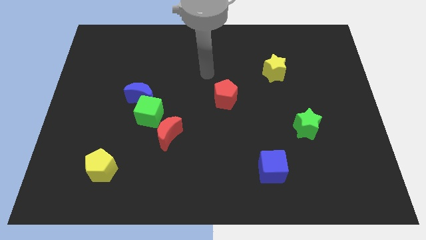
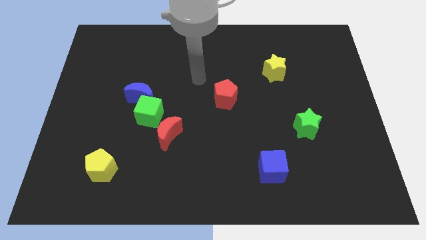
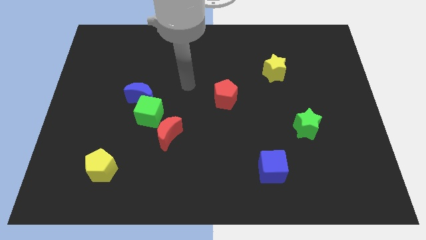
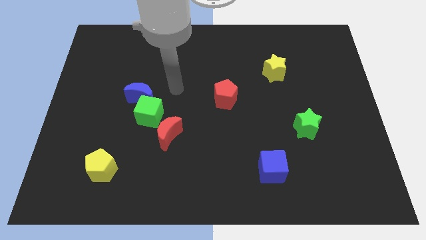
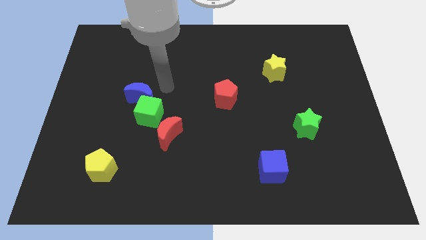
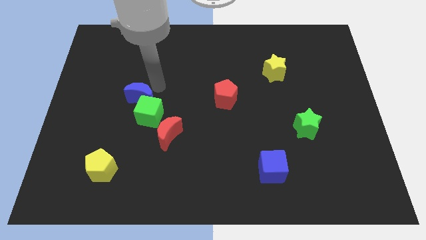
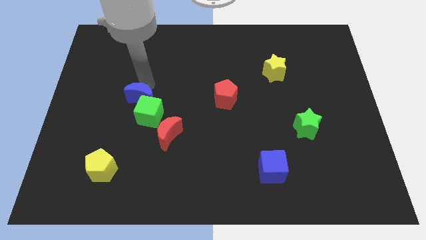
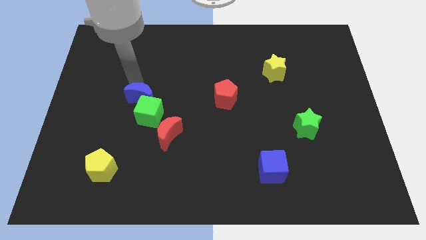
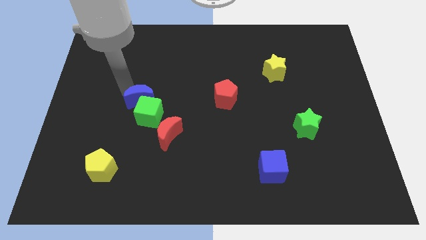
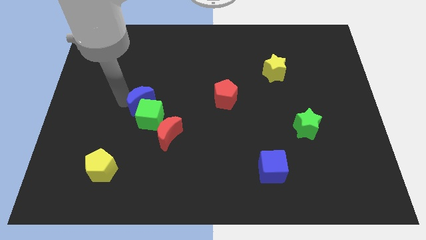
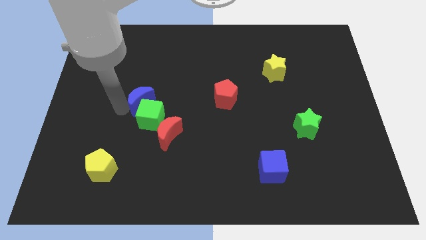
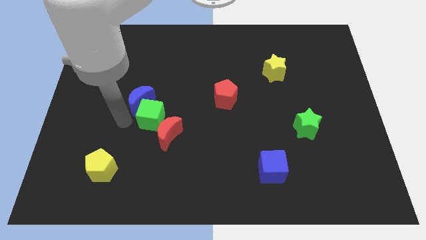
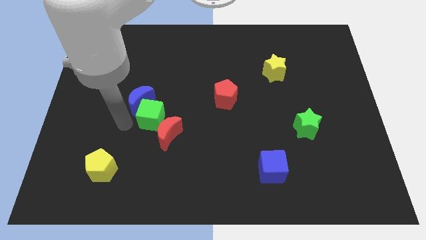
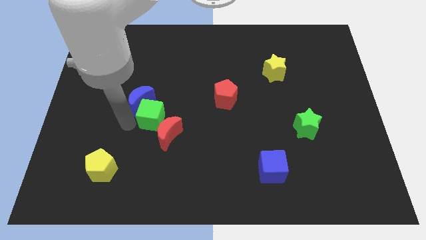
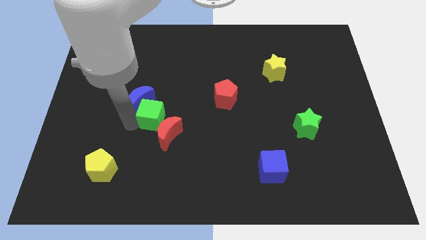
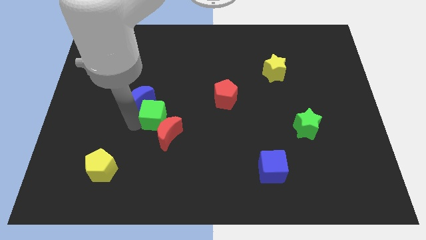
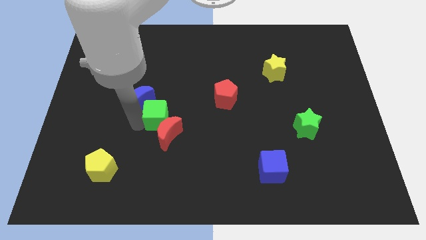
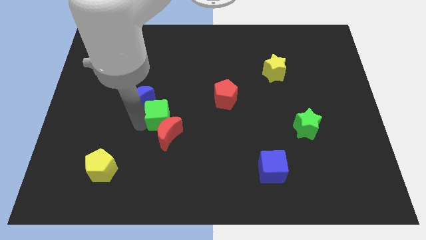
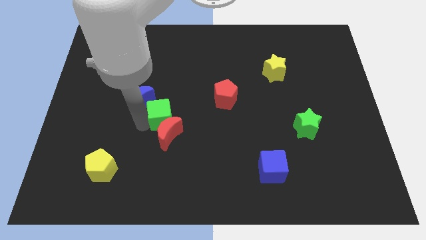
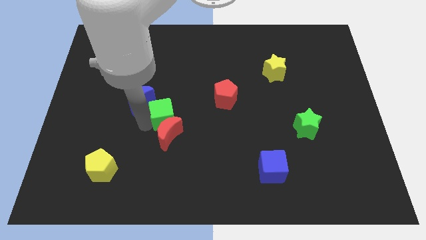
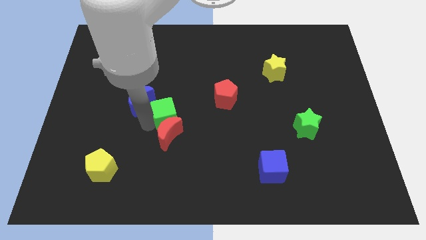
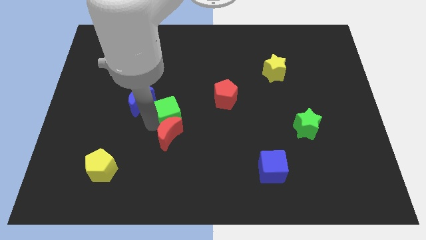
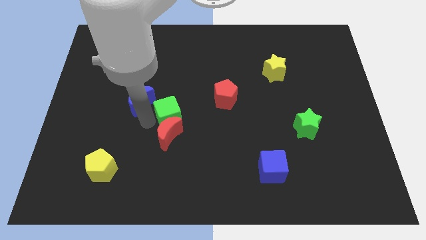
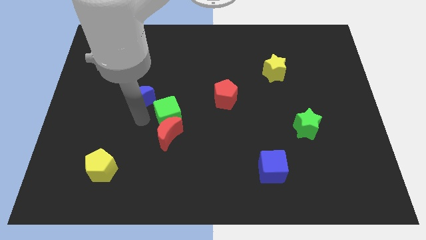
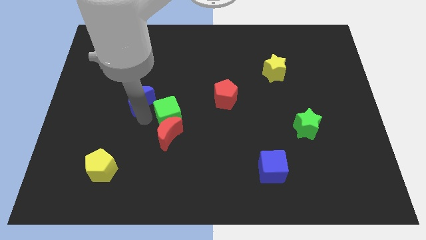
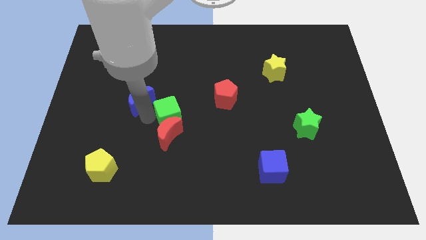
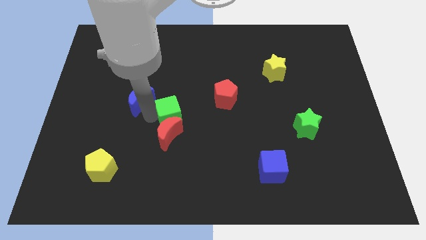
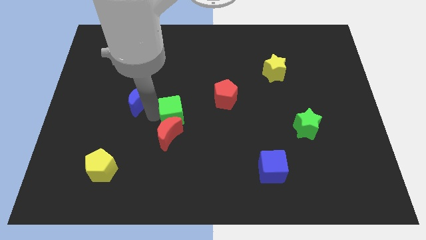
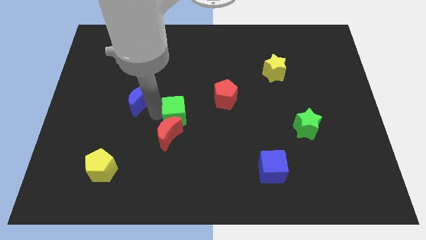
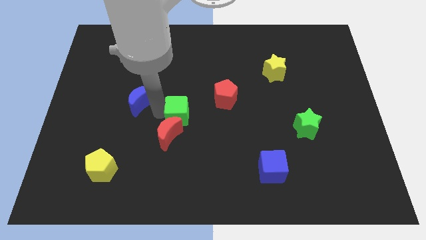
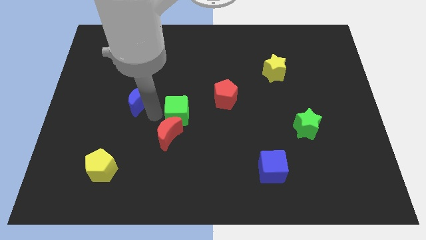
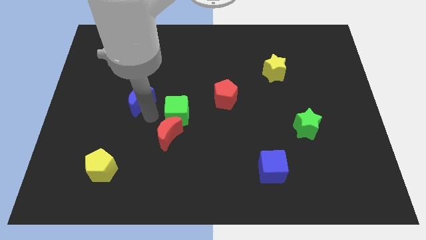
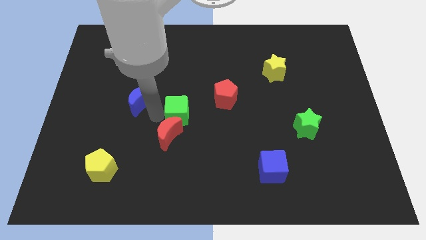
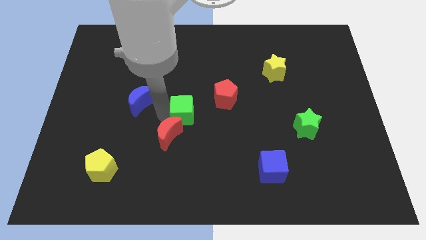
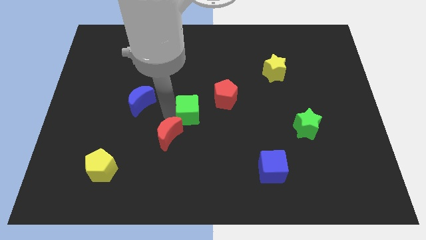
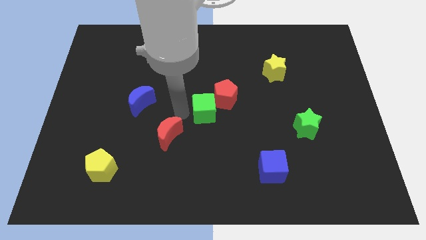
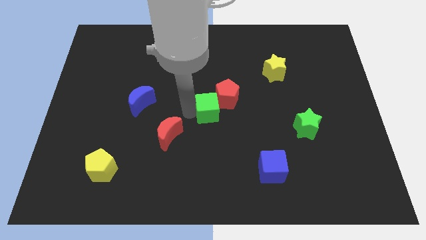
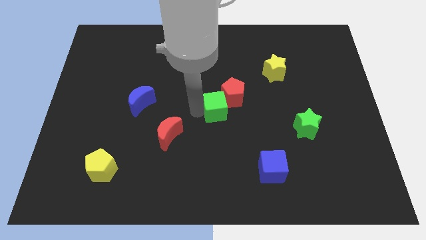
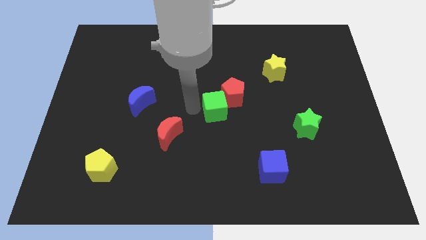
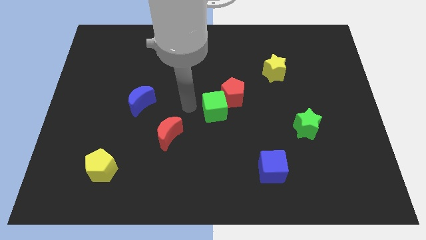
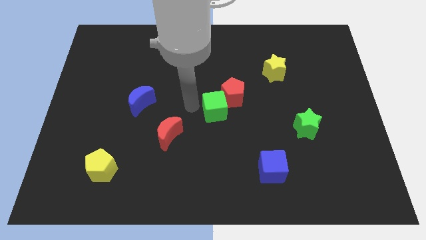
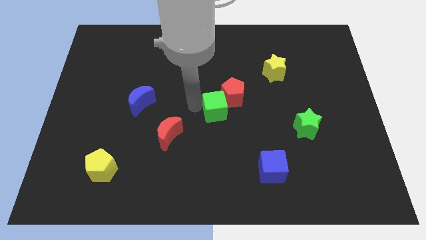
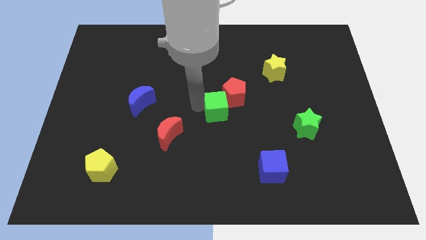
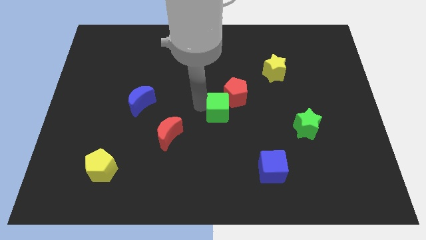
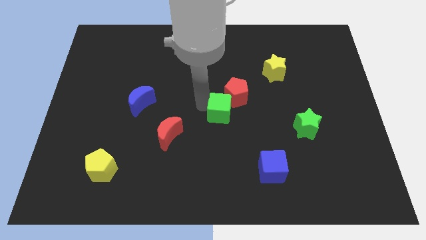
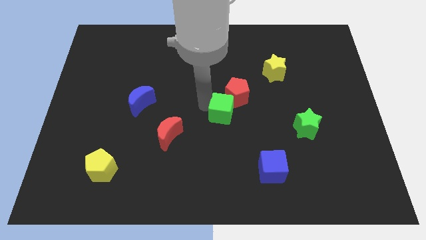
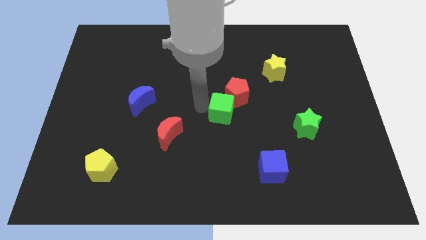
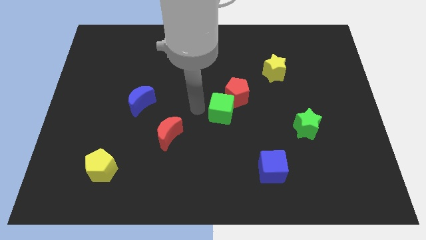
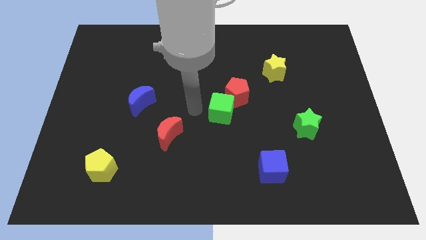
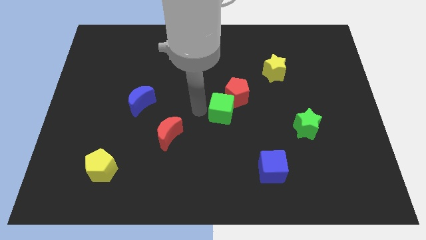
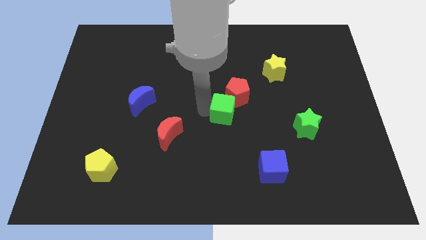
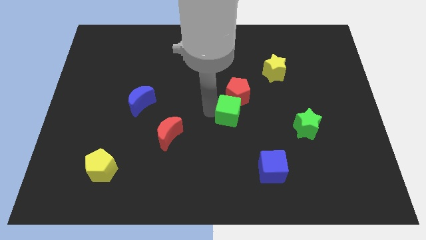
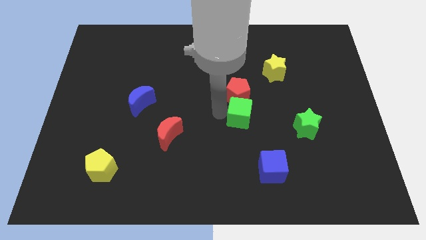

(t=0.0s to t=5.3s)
slide the green cube to the right

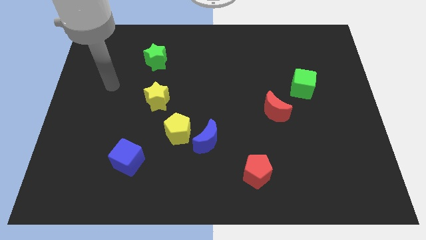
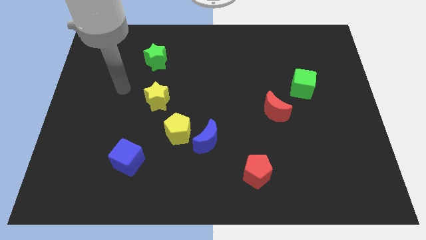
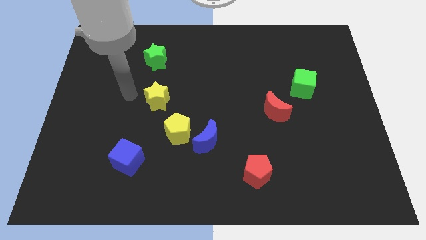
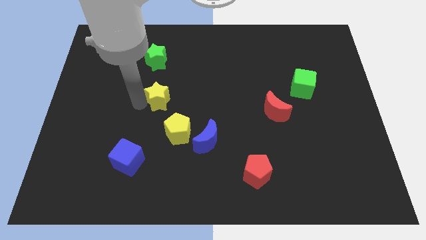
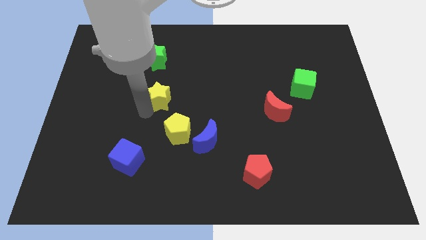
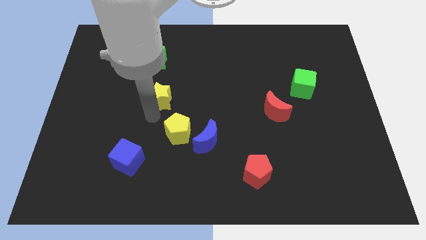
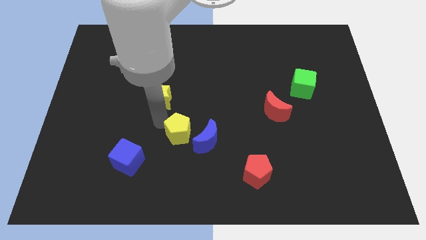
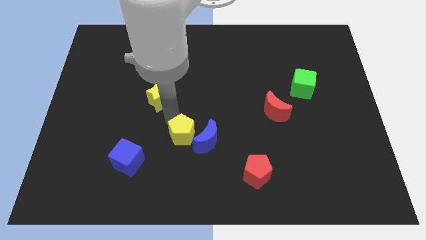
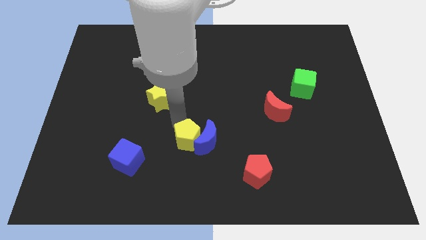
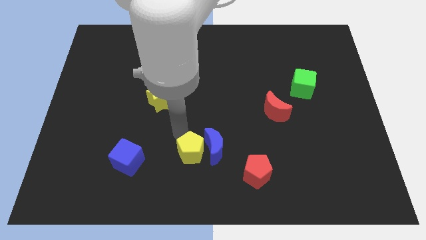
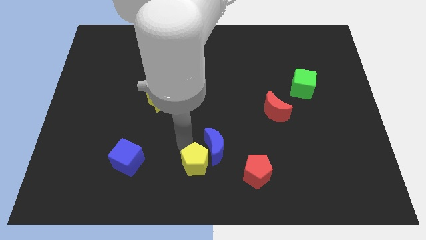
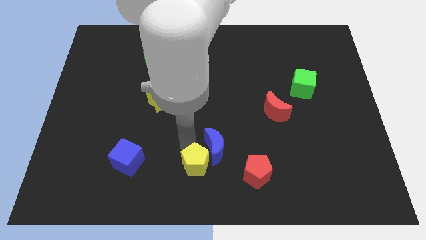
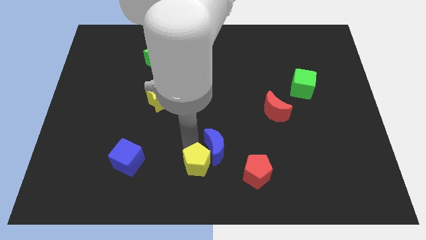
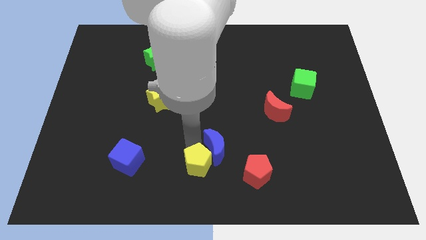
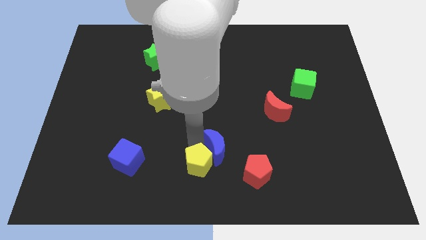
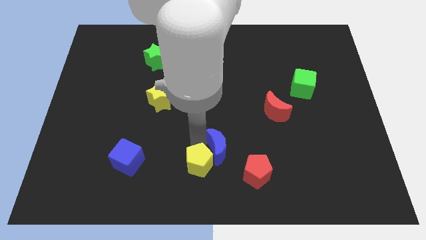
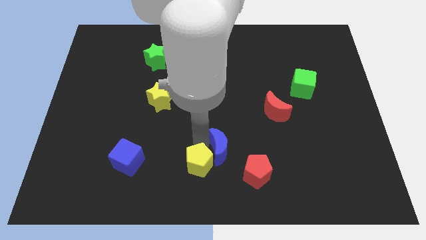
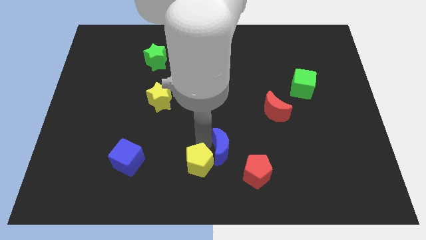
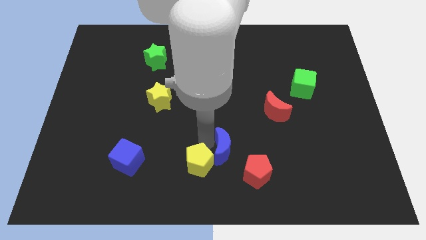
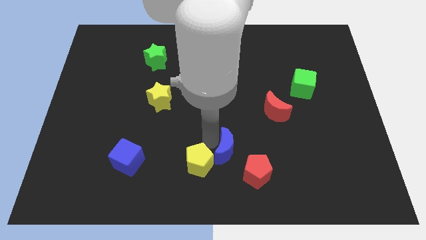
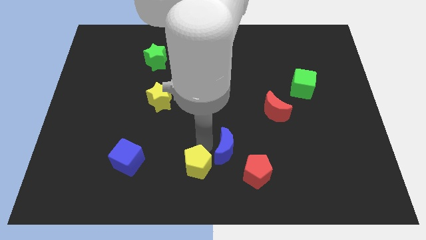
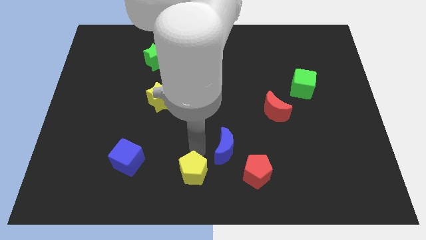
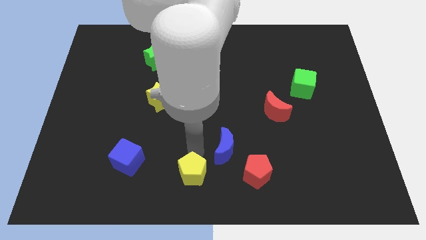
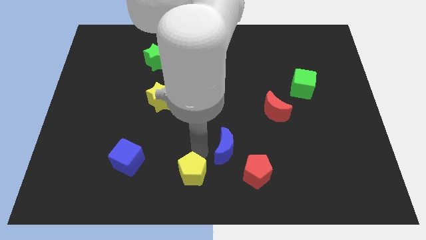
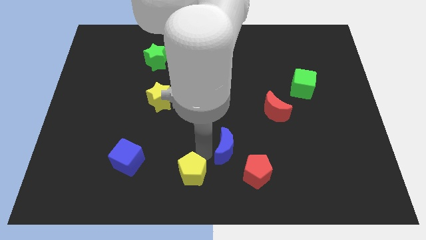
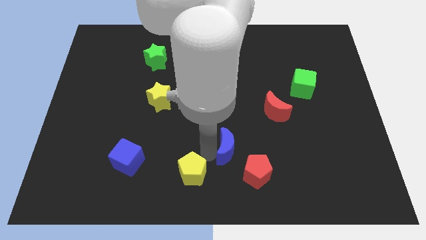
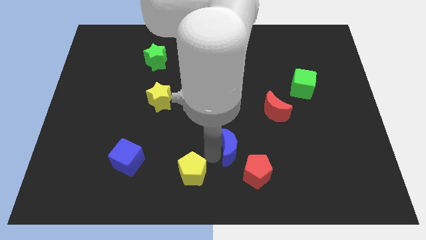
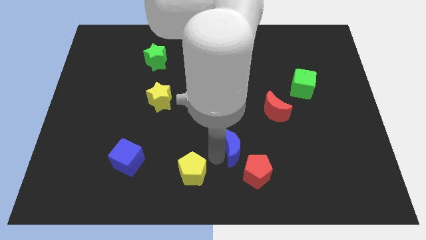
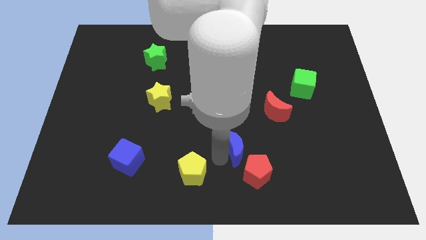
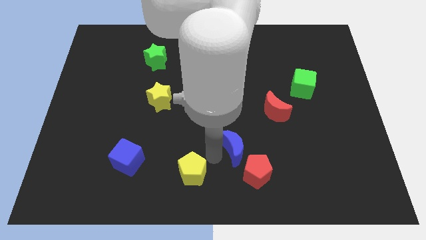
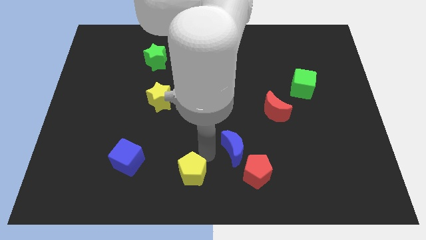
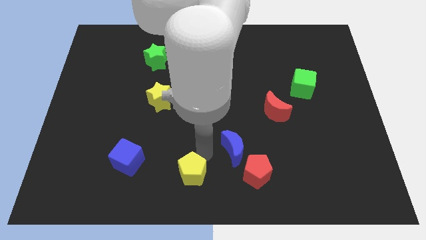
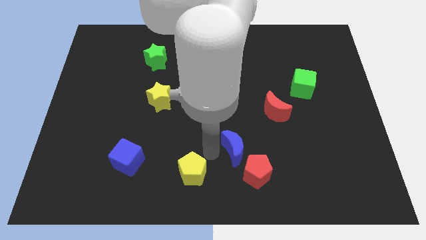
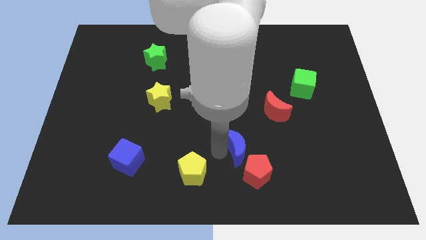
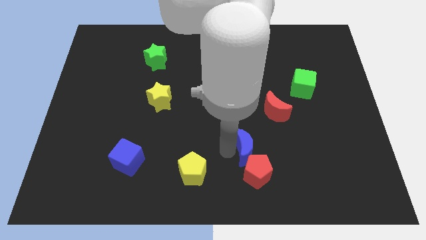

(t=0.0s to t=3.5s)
push the blue moon right a little bit
